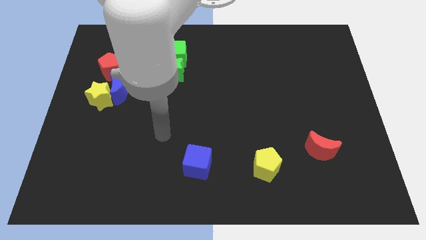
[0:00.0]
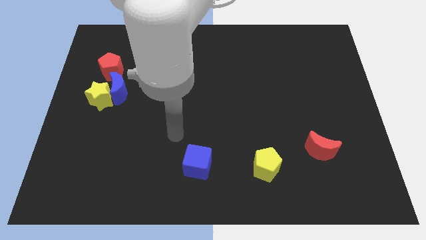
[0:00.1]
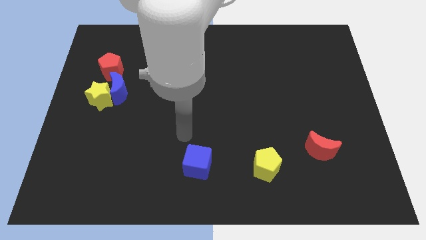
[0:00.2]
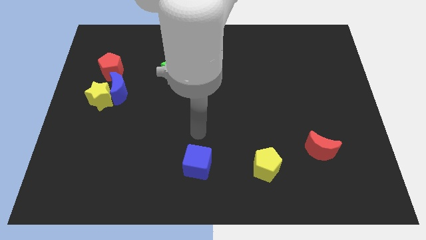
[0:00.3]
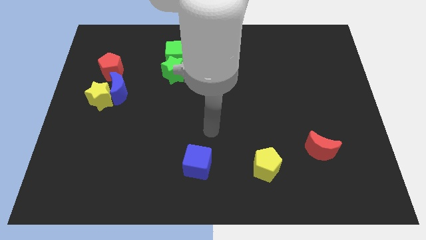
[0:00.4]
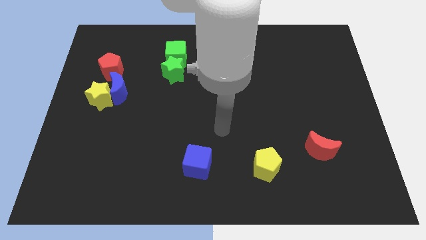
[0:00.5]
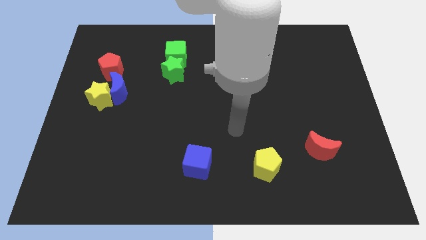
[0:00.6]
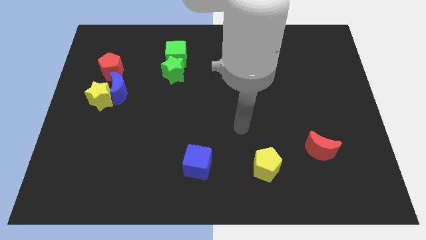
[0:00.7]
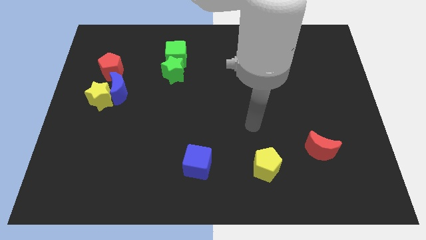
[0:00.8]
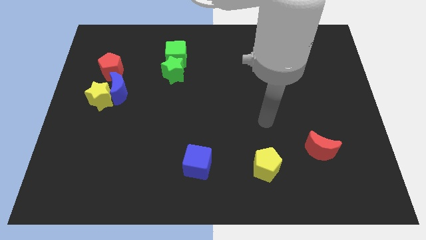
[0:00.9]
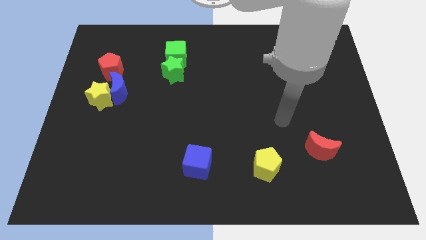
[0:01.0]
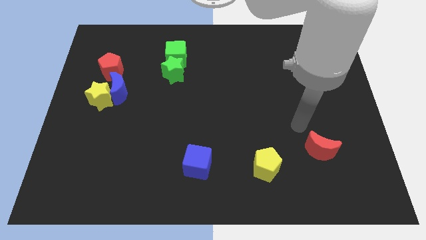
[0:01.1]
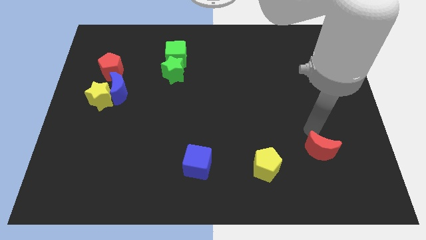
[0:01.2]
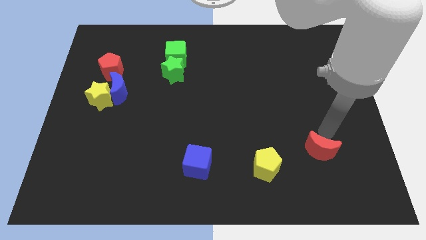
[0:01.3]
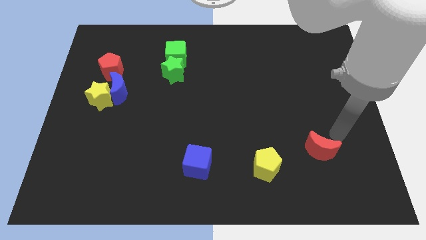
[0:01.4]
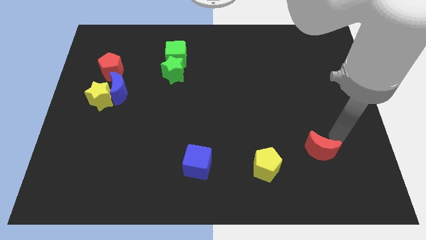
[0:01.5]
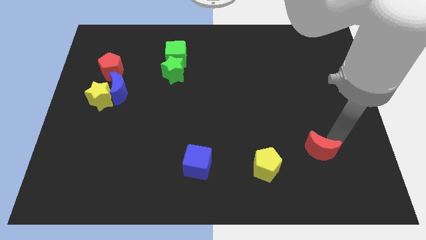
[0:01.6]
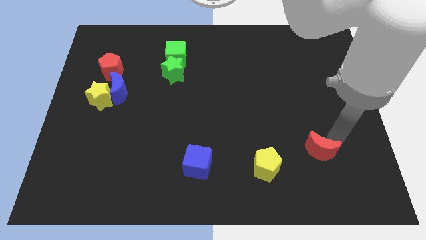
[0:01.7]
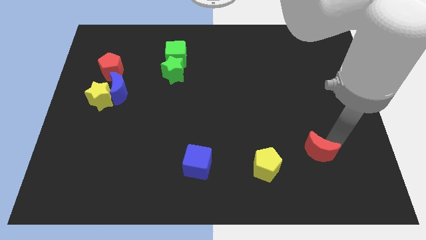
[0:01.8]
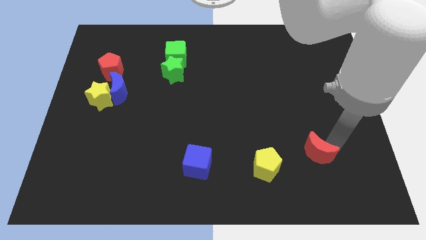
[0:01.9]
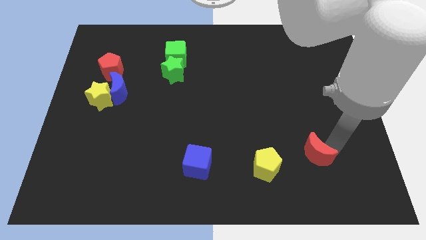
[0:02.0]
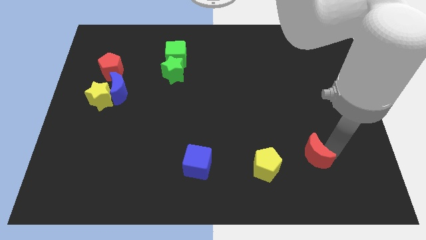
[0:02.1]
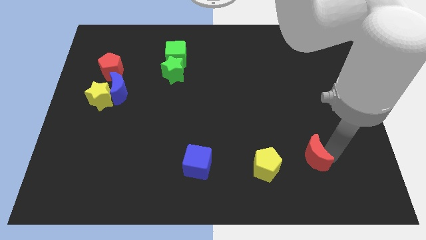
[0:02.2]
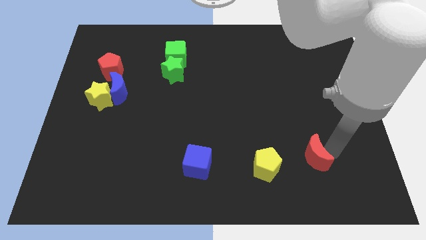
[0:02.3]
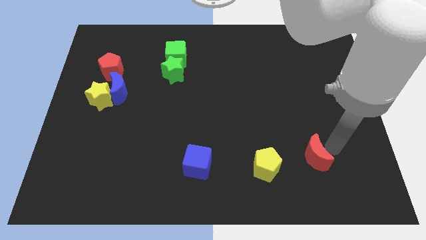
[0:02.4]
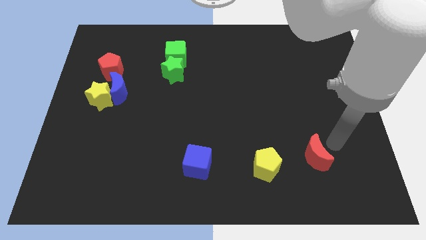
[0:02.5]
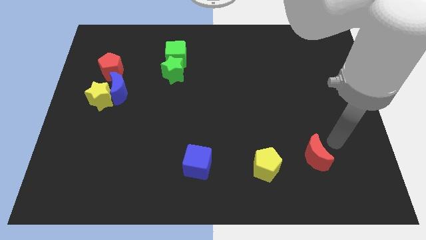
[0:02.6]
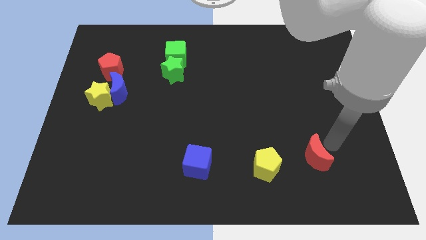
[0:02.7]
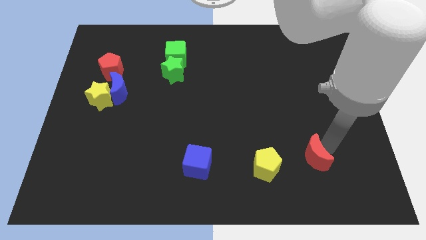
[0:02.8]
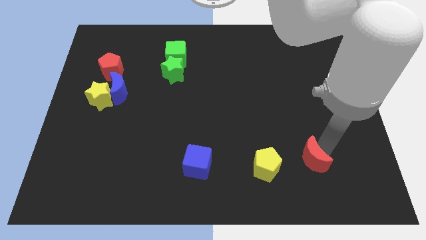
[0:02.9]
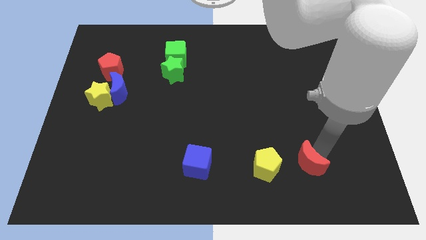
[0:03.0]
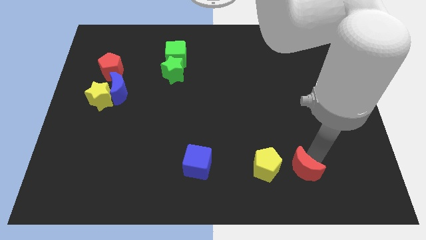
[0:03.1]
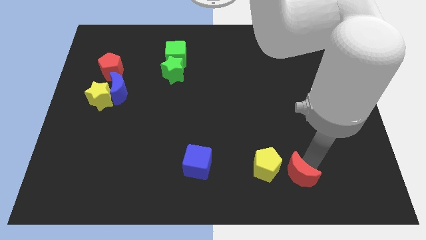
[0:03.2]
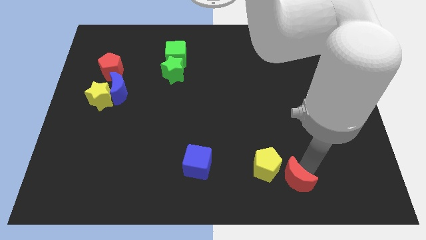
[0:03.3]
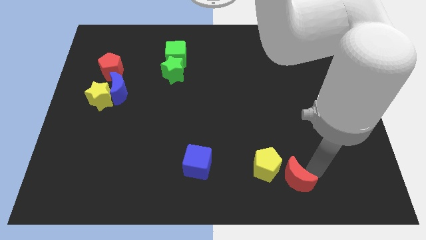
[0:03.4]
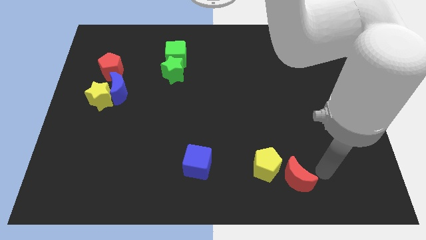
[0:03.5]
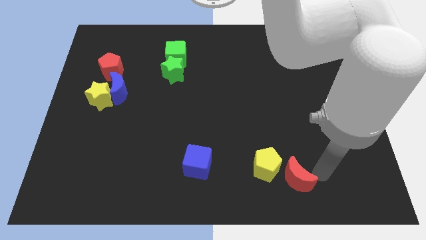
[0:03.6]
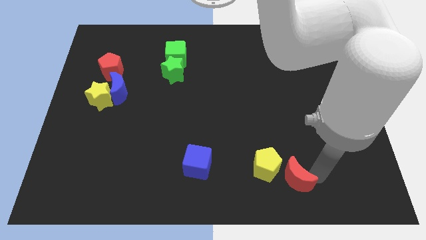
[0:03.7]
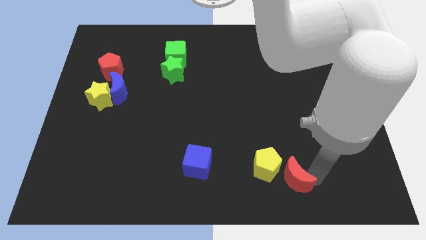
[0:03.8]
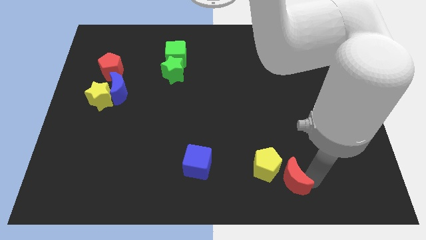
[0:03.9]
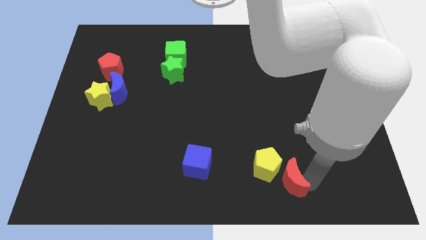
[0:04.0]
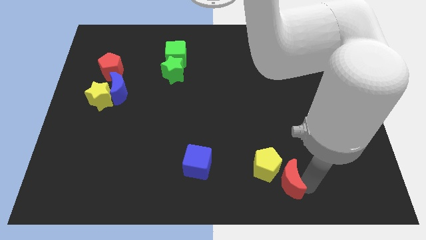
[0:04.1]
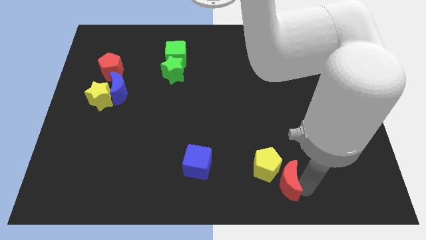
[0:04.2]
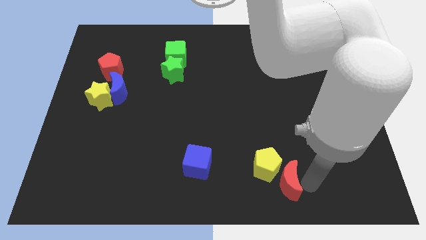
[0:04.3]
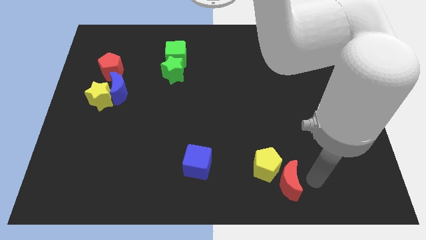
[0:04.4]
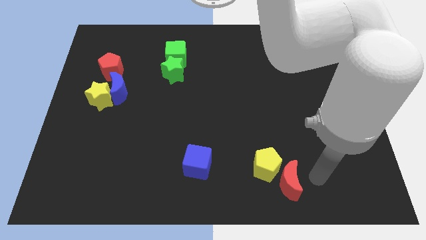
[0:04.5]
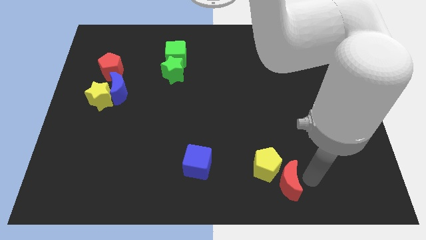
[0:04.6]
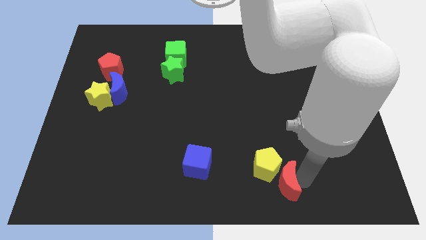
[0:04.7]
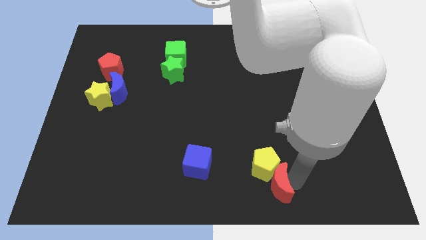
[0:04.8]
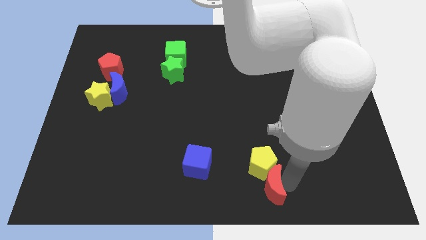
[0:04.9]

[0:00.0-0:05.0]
move the red moon to the bottom

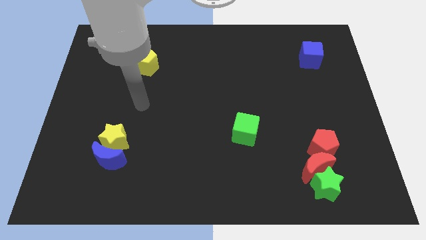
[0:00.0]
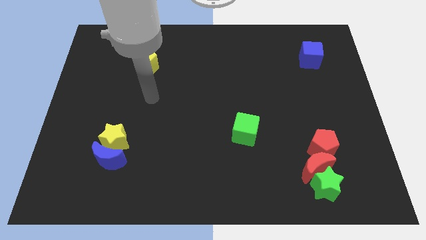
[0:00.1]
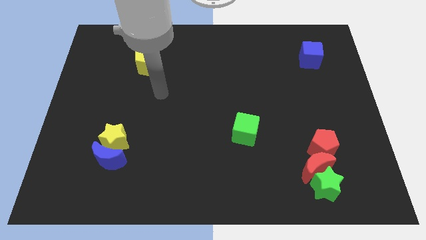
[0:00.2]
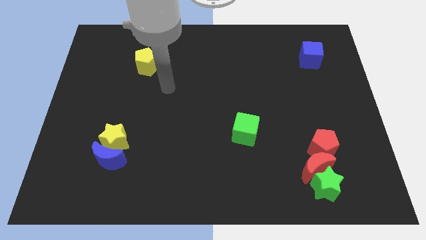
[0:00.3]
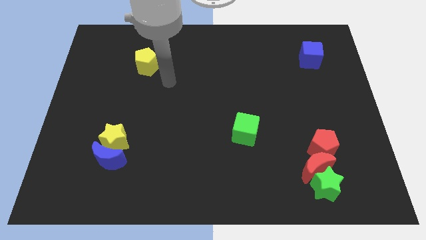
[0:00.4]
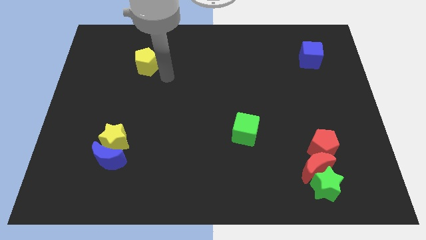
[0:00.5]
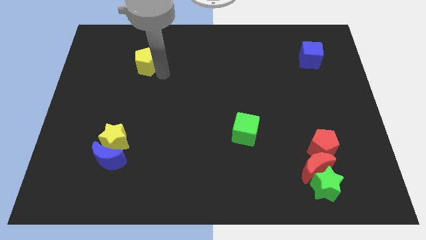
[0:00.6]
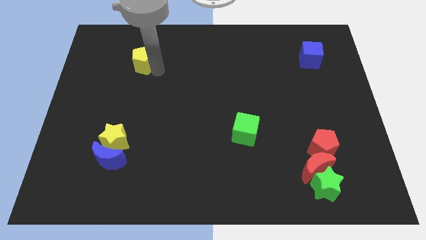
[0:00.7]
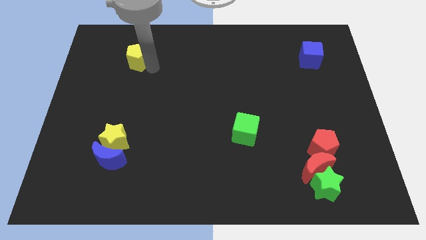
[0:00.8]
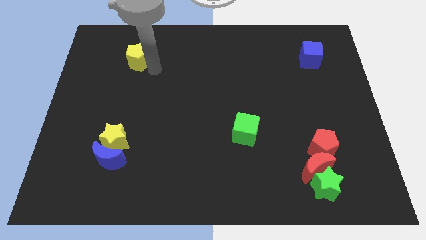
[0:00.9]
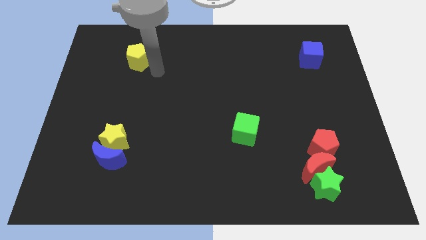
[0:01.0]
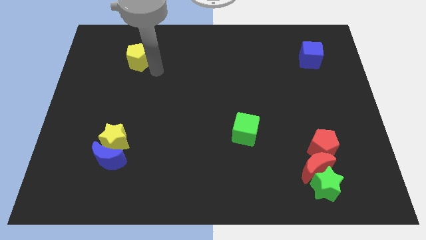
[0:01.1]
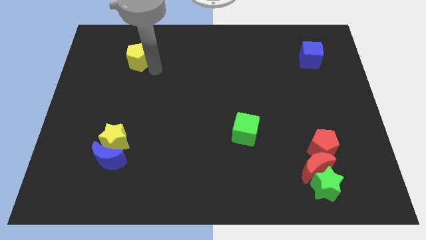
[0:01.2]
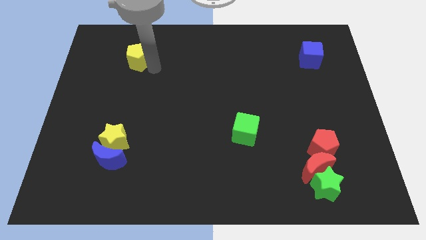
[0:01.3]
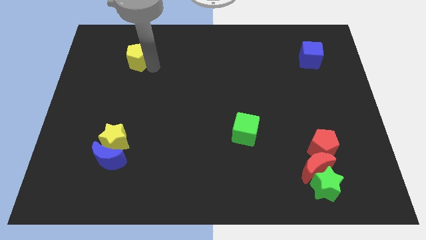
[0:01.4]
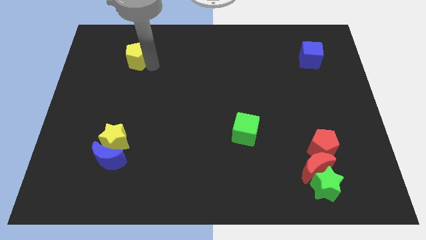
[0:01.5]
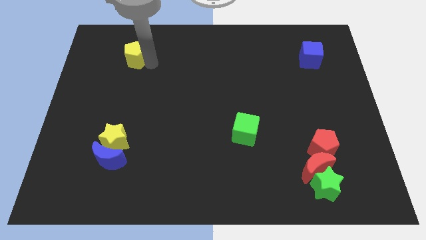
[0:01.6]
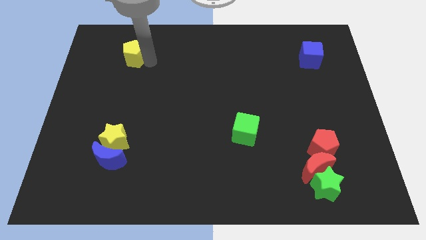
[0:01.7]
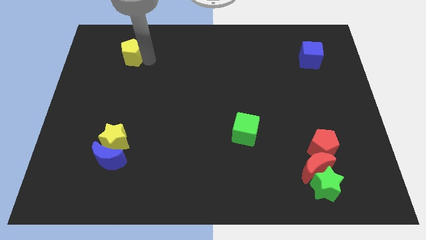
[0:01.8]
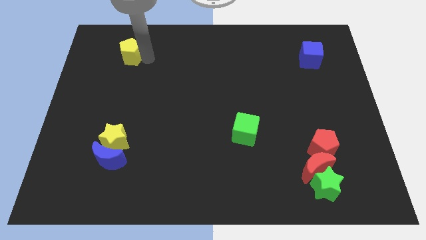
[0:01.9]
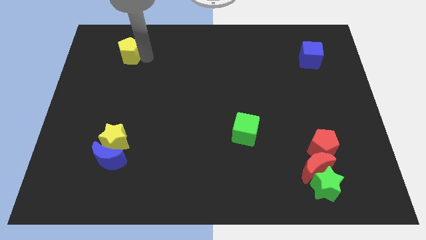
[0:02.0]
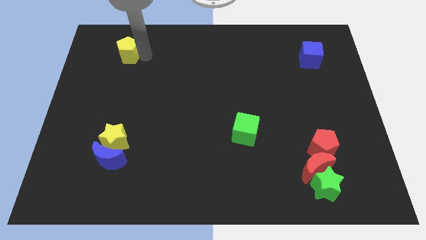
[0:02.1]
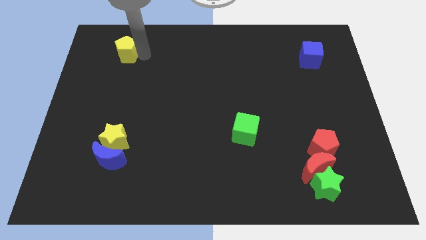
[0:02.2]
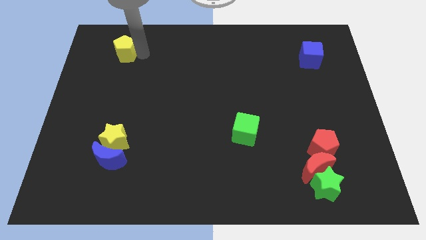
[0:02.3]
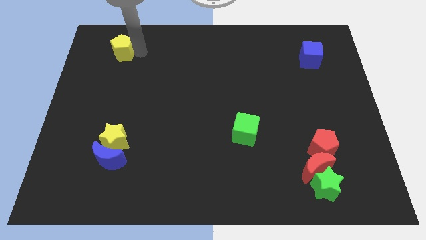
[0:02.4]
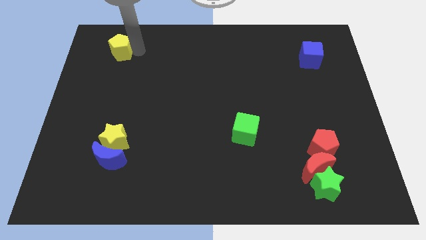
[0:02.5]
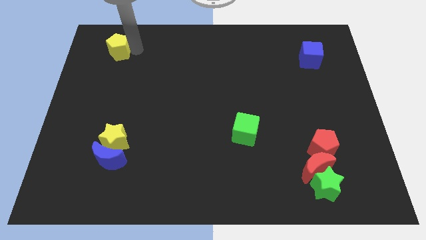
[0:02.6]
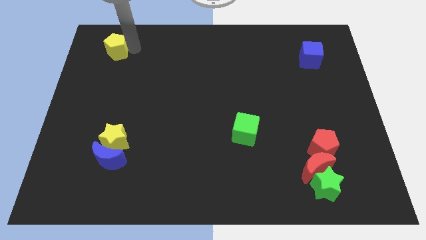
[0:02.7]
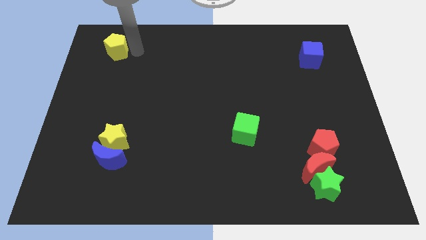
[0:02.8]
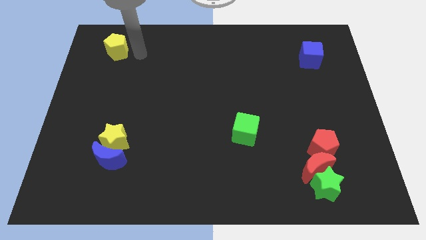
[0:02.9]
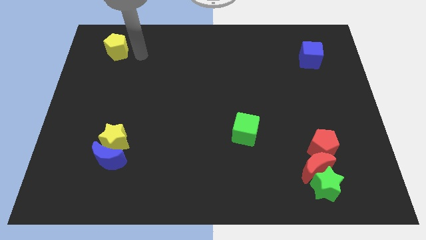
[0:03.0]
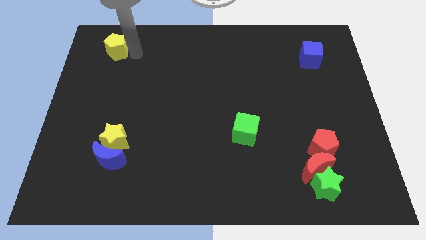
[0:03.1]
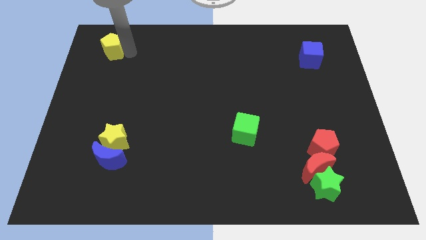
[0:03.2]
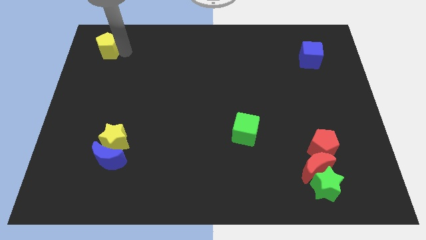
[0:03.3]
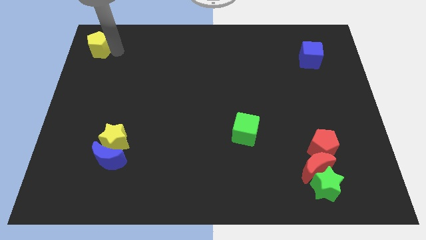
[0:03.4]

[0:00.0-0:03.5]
put the yellow pentagon to the top left
